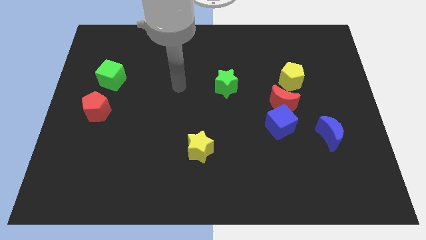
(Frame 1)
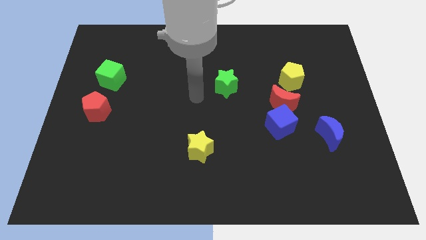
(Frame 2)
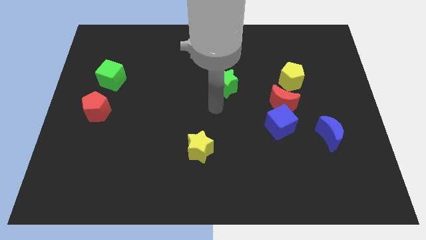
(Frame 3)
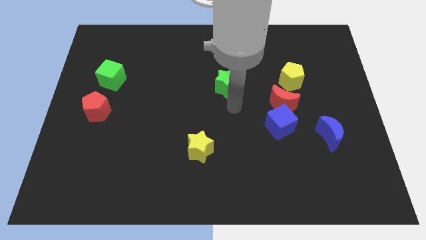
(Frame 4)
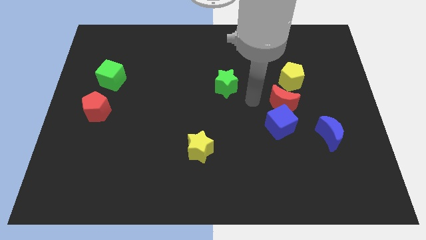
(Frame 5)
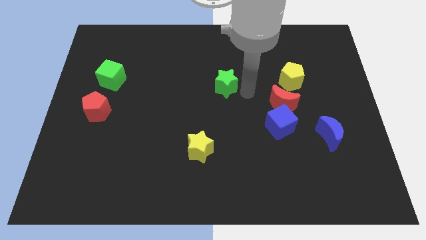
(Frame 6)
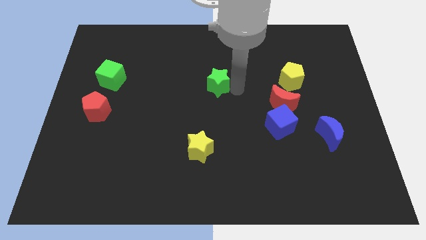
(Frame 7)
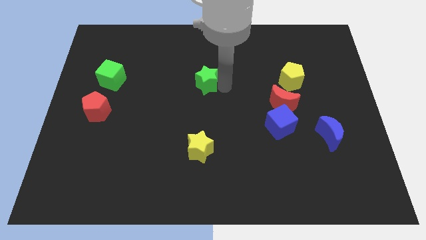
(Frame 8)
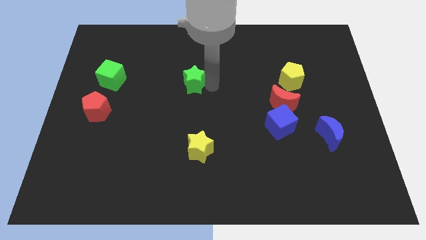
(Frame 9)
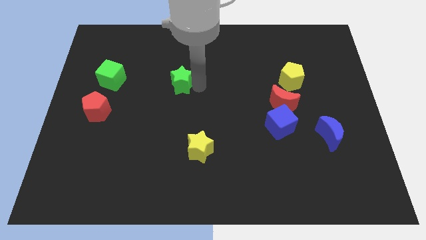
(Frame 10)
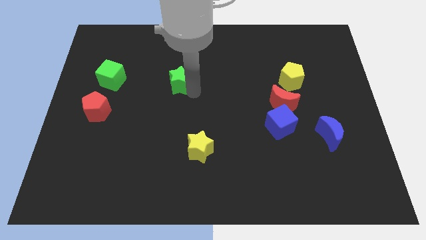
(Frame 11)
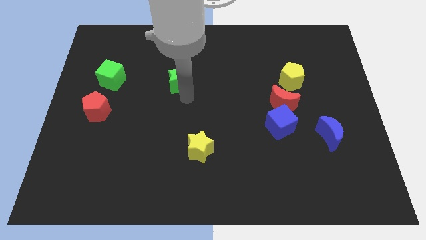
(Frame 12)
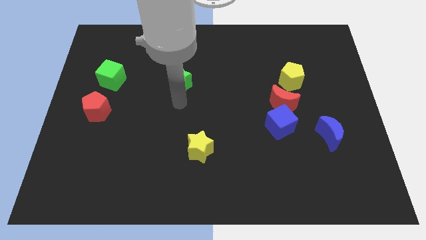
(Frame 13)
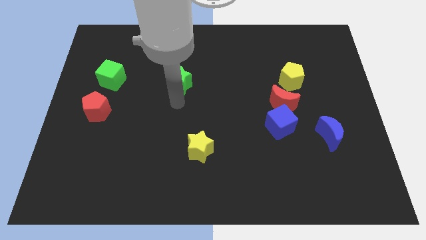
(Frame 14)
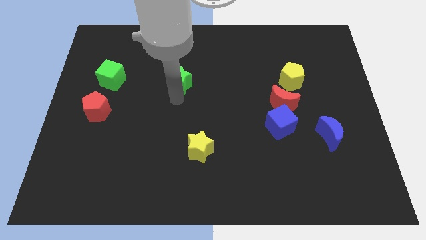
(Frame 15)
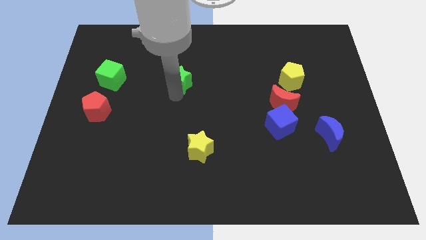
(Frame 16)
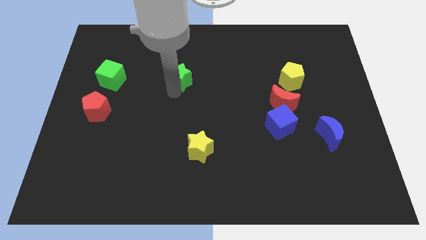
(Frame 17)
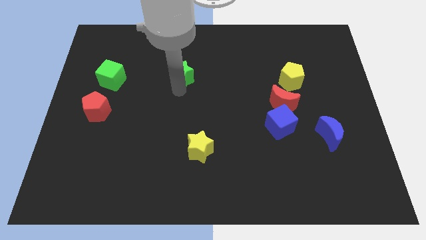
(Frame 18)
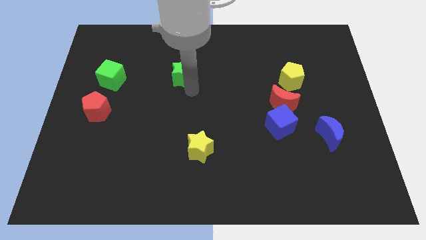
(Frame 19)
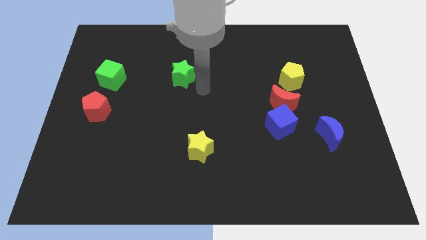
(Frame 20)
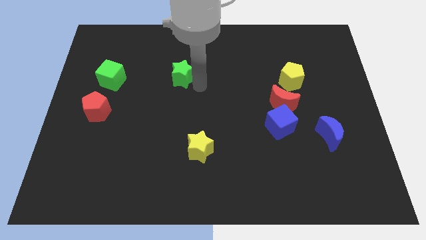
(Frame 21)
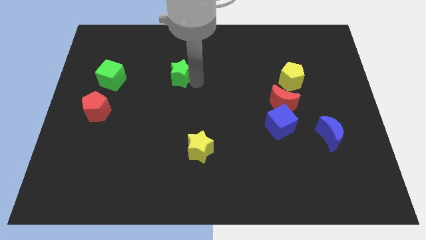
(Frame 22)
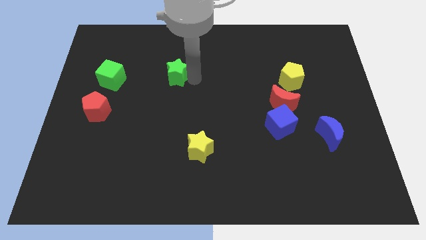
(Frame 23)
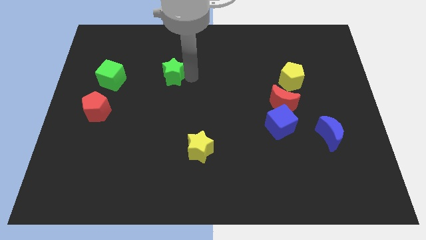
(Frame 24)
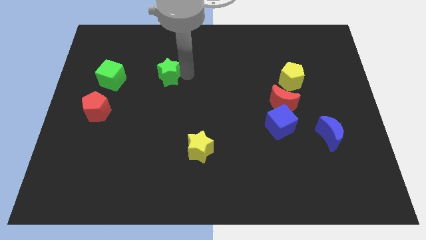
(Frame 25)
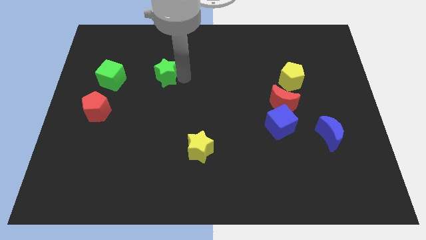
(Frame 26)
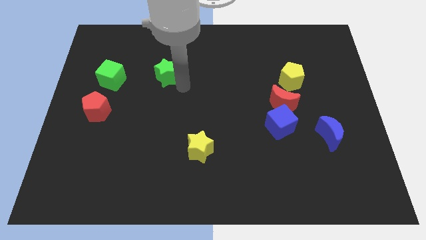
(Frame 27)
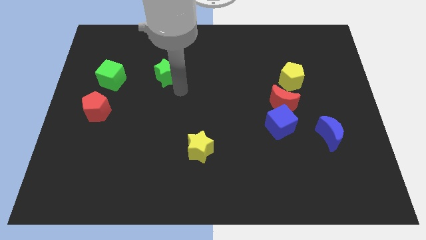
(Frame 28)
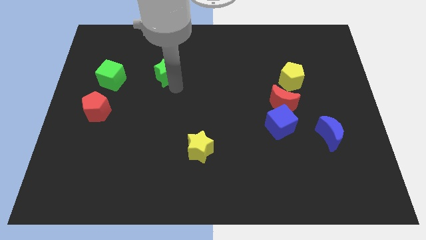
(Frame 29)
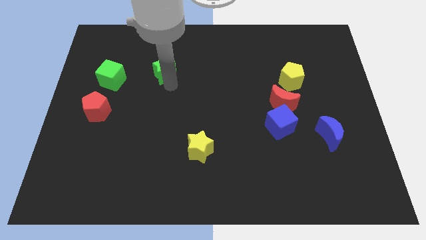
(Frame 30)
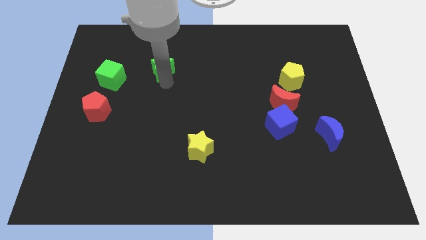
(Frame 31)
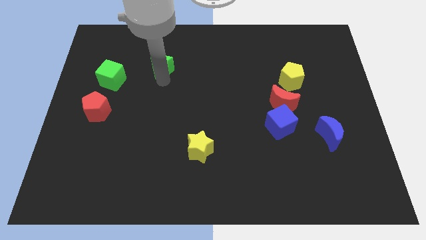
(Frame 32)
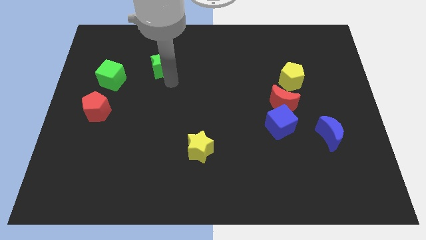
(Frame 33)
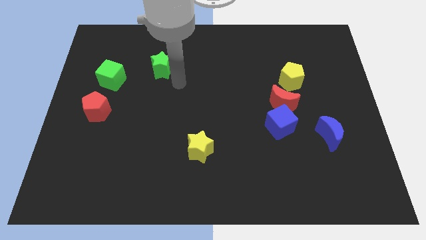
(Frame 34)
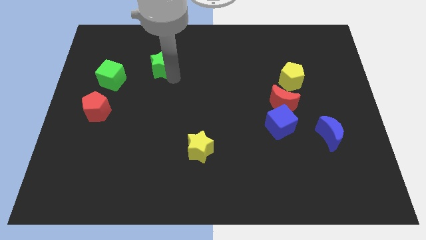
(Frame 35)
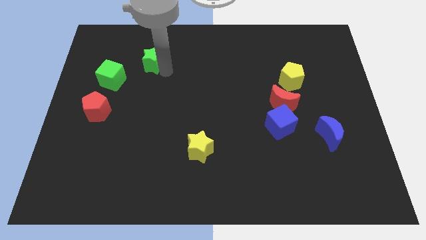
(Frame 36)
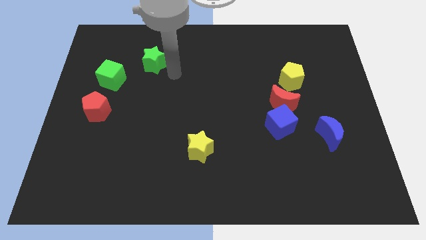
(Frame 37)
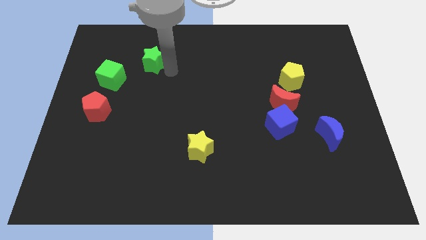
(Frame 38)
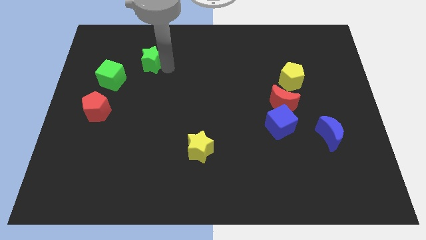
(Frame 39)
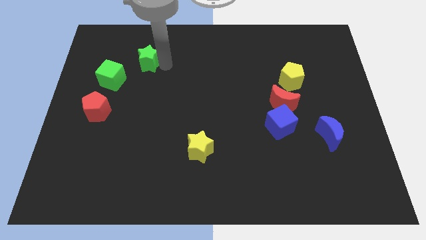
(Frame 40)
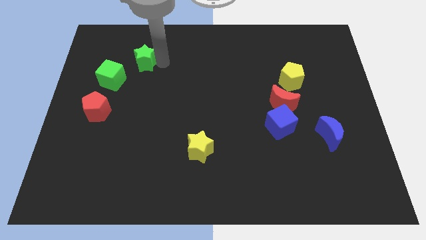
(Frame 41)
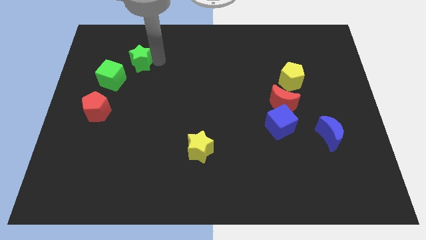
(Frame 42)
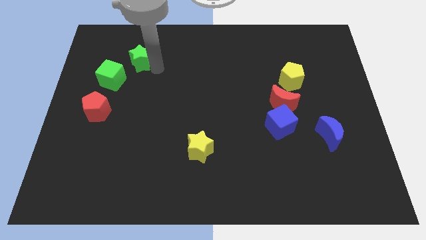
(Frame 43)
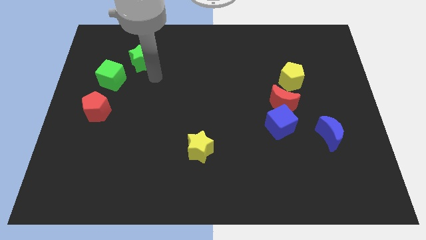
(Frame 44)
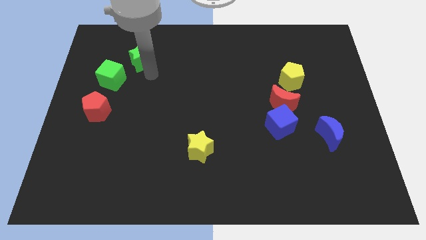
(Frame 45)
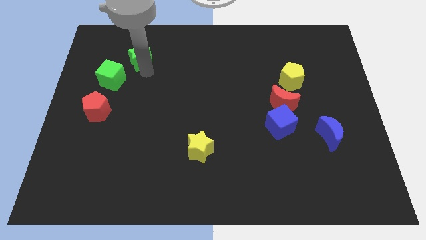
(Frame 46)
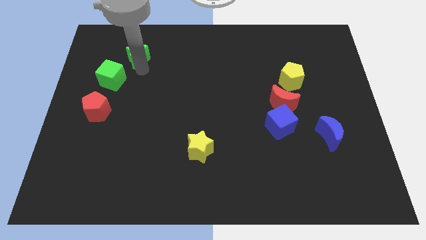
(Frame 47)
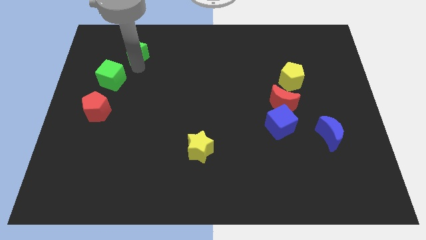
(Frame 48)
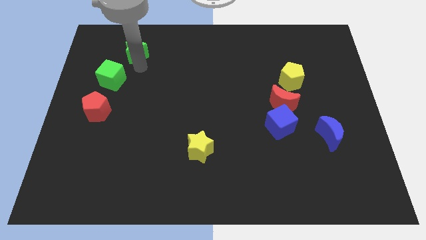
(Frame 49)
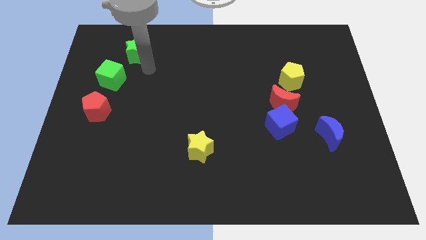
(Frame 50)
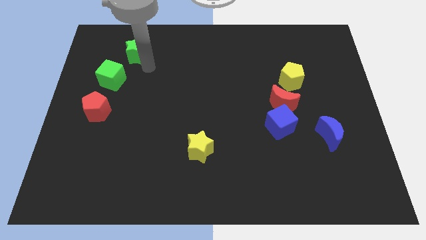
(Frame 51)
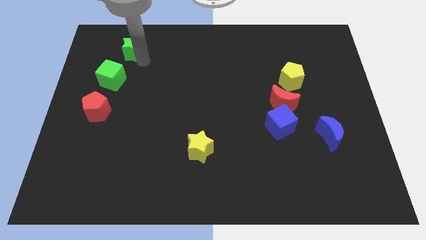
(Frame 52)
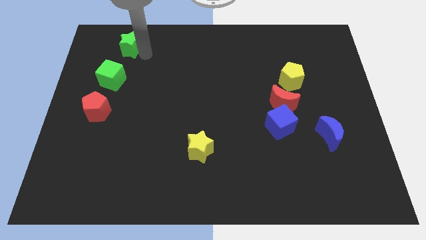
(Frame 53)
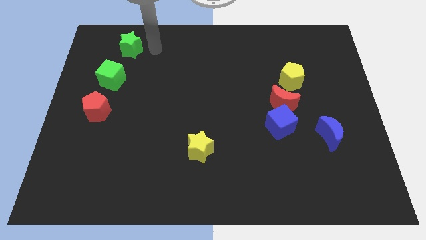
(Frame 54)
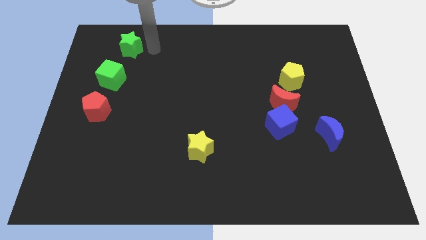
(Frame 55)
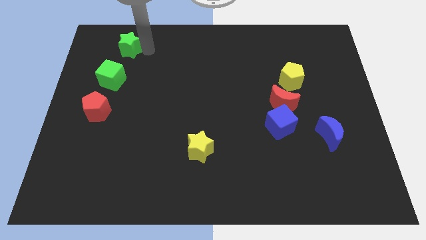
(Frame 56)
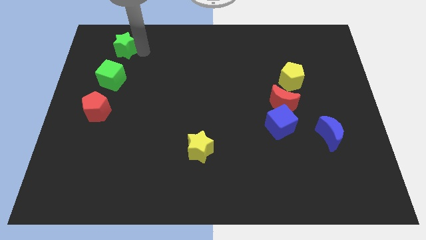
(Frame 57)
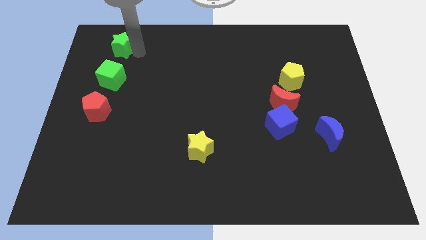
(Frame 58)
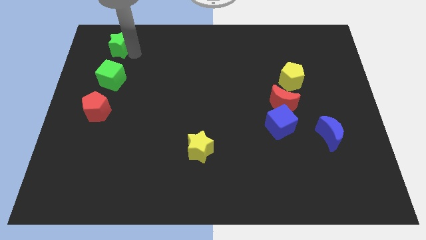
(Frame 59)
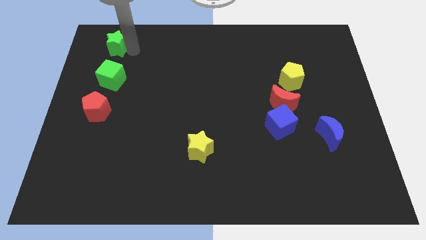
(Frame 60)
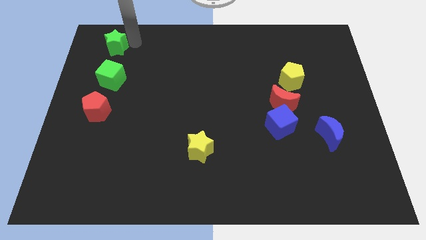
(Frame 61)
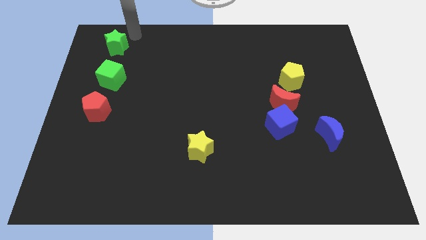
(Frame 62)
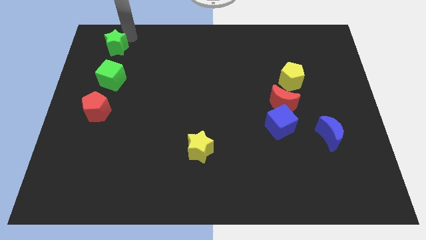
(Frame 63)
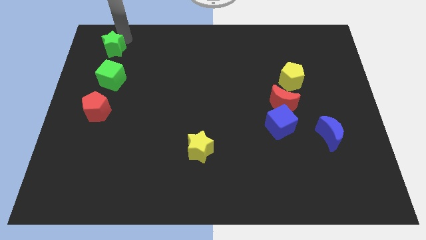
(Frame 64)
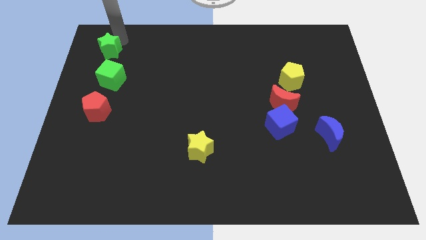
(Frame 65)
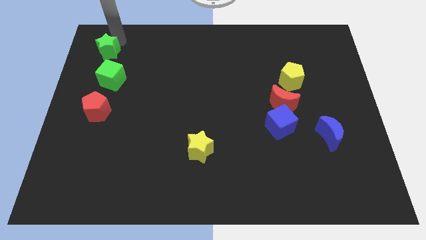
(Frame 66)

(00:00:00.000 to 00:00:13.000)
move the green star to the left

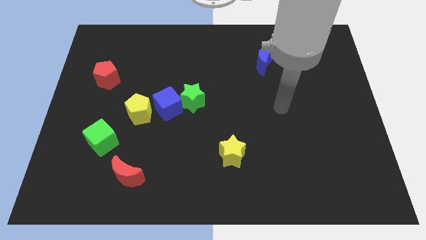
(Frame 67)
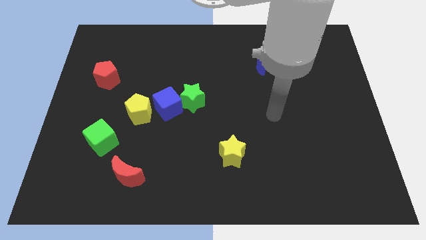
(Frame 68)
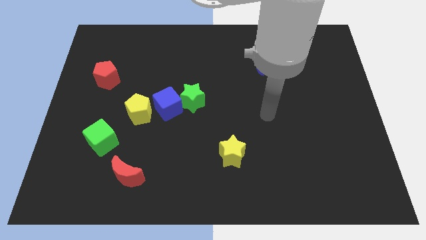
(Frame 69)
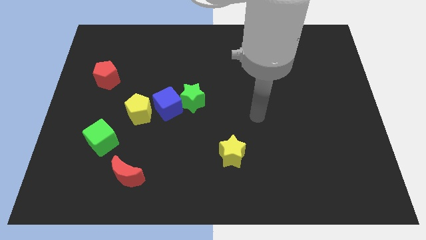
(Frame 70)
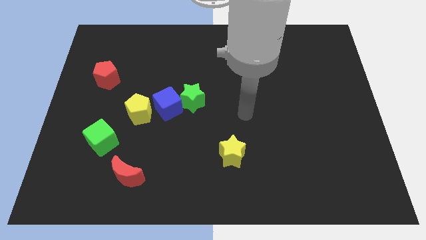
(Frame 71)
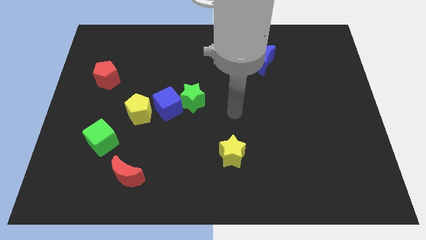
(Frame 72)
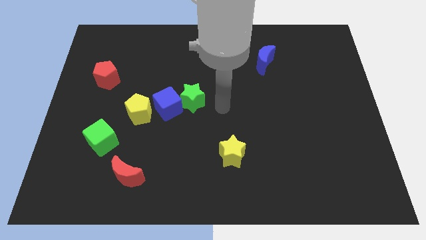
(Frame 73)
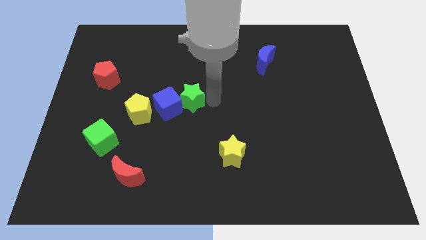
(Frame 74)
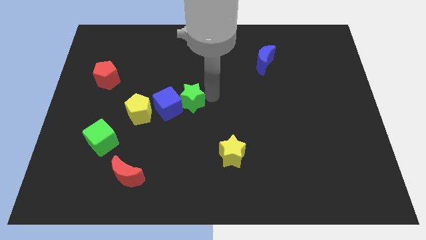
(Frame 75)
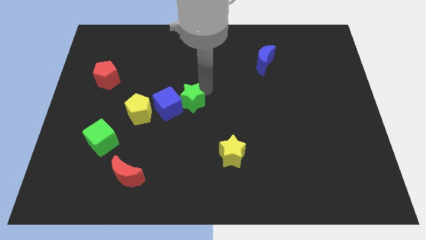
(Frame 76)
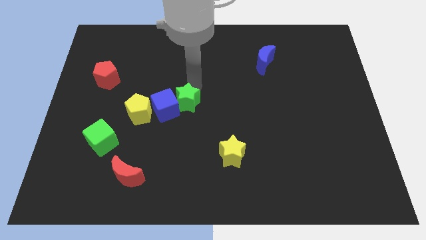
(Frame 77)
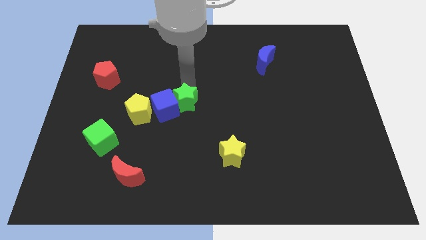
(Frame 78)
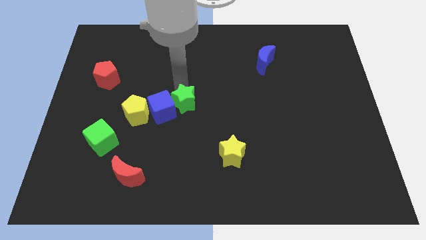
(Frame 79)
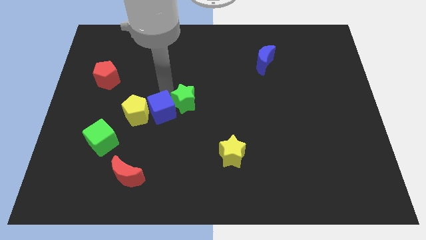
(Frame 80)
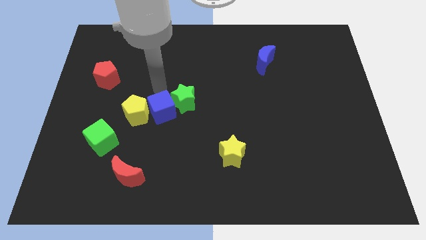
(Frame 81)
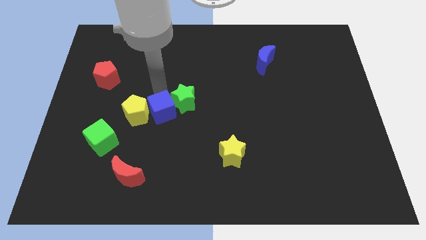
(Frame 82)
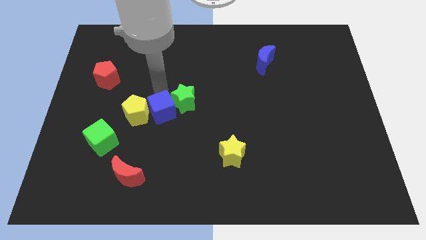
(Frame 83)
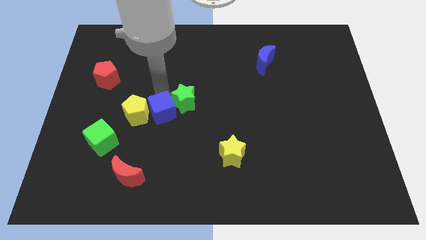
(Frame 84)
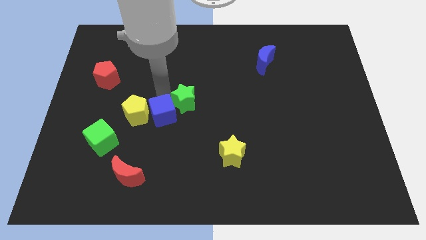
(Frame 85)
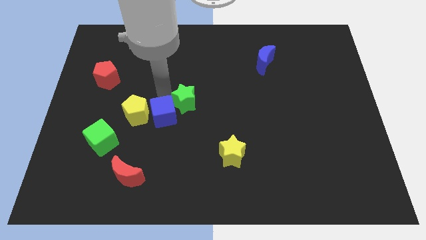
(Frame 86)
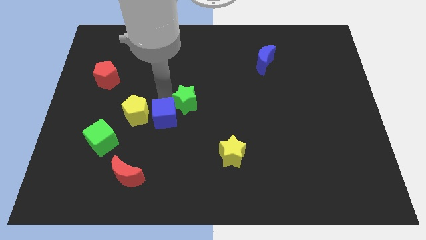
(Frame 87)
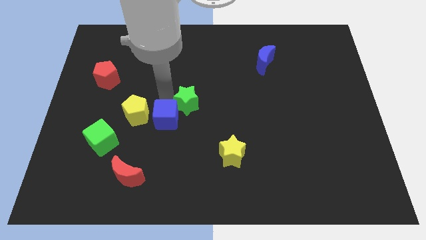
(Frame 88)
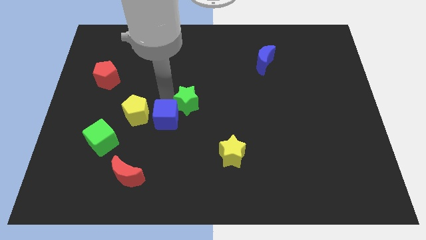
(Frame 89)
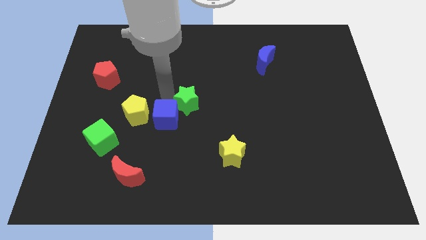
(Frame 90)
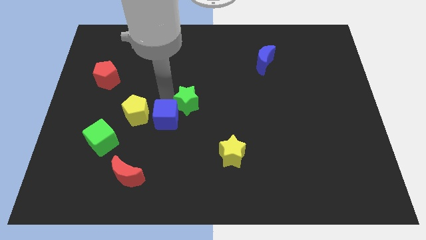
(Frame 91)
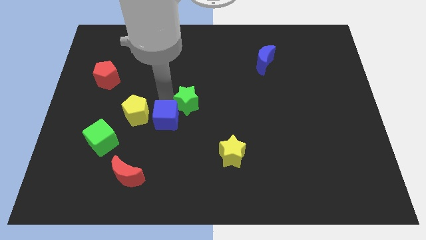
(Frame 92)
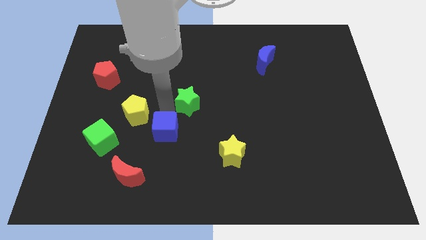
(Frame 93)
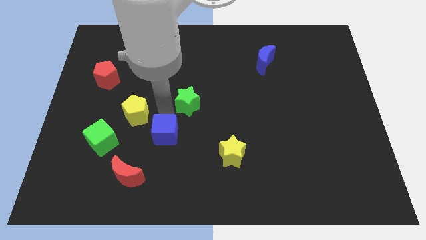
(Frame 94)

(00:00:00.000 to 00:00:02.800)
slide the blue cube slightly down
